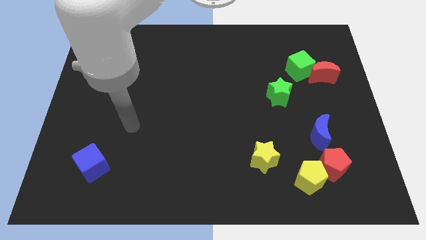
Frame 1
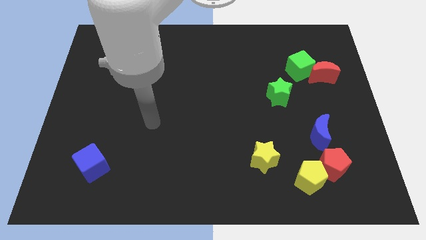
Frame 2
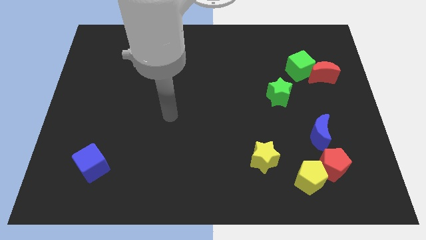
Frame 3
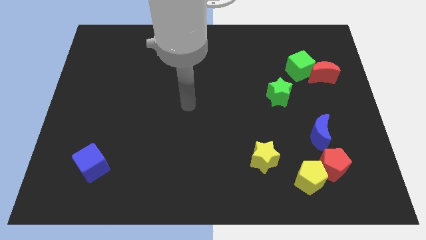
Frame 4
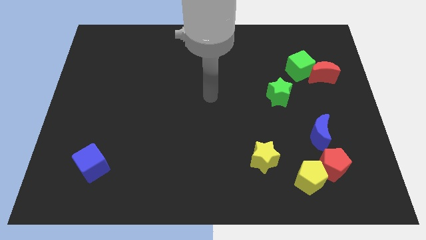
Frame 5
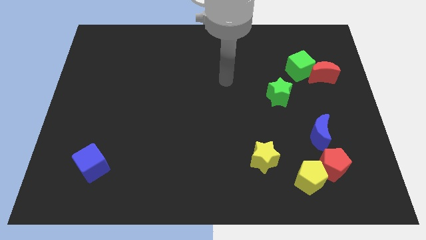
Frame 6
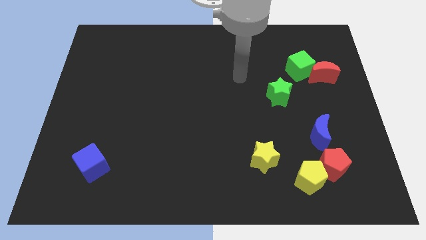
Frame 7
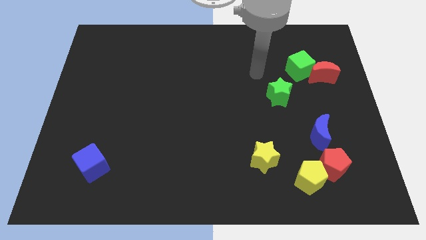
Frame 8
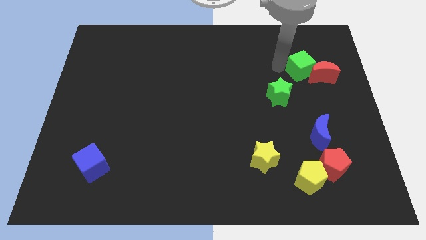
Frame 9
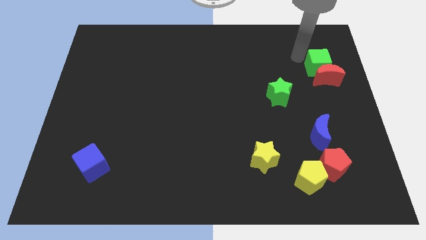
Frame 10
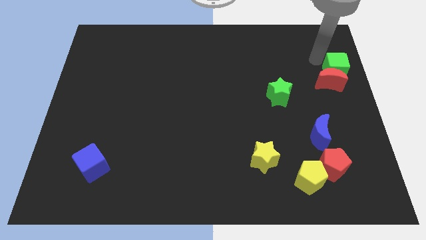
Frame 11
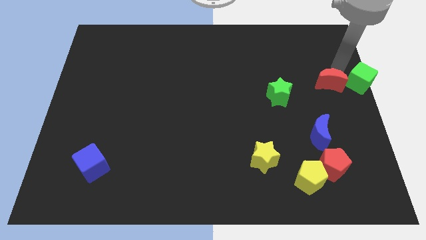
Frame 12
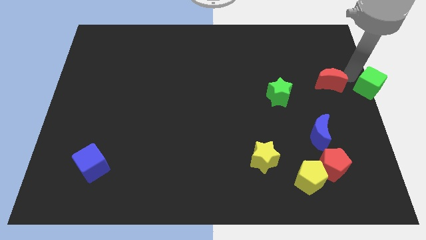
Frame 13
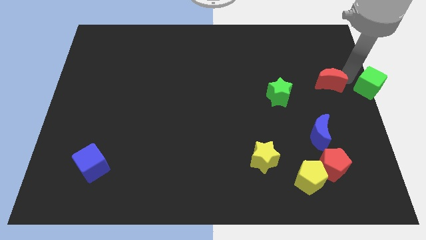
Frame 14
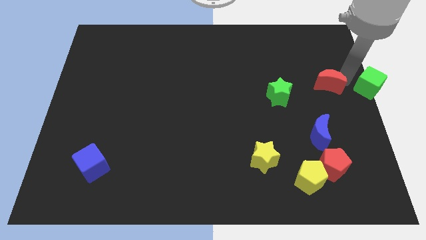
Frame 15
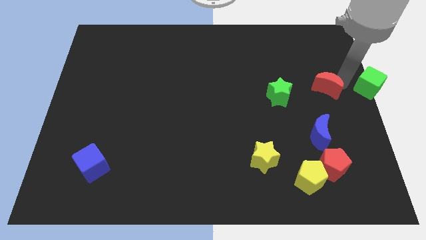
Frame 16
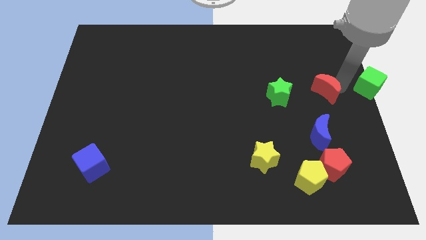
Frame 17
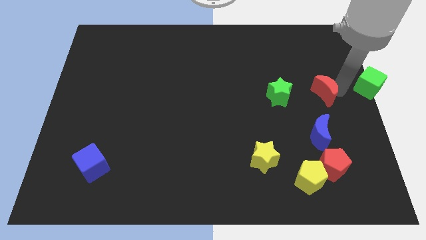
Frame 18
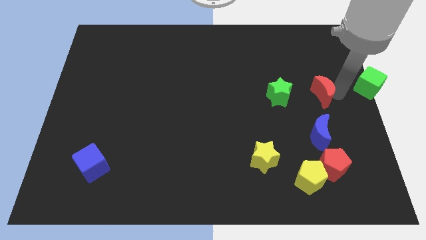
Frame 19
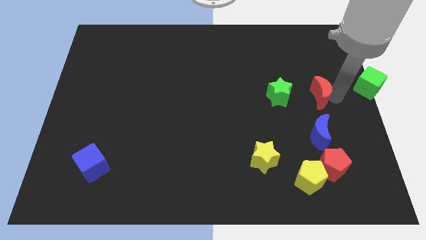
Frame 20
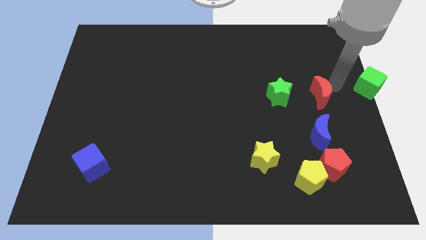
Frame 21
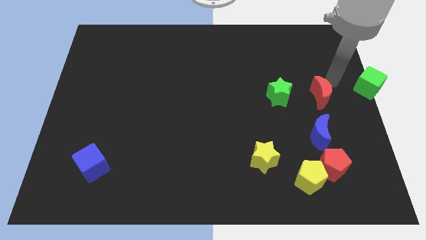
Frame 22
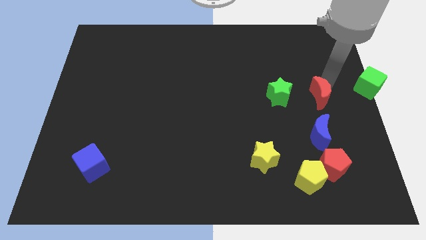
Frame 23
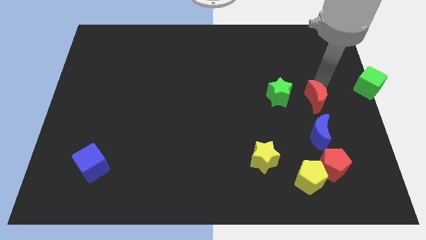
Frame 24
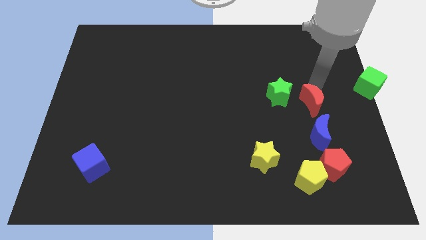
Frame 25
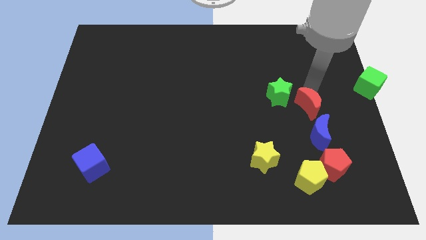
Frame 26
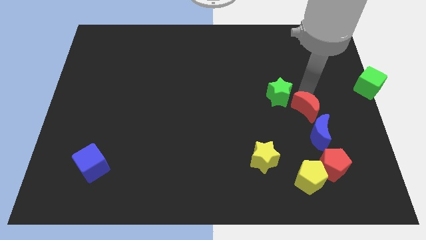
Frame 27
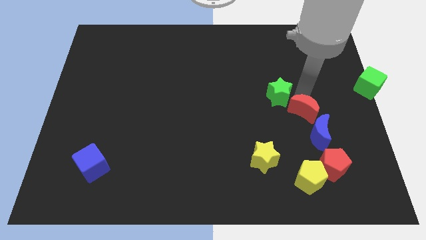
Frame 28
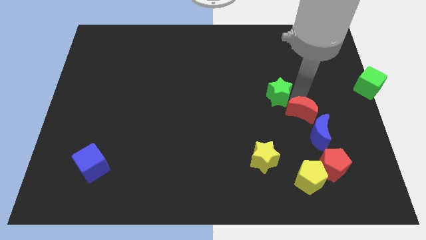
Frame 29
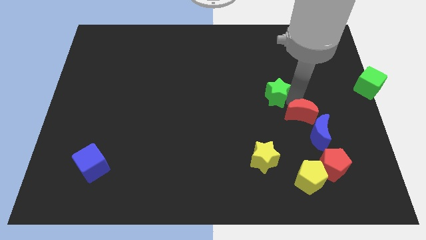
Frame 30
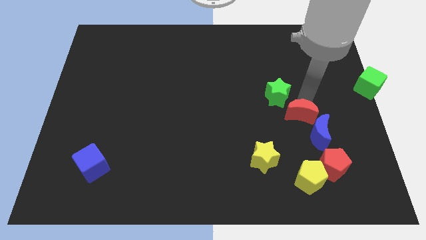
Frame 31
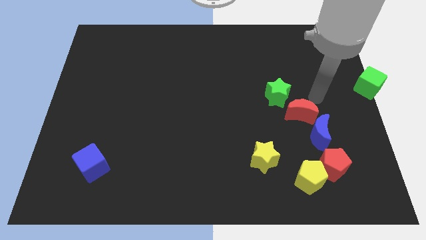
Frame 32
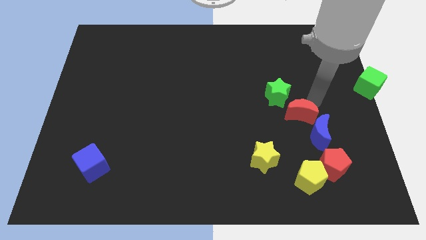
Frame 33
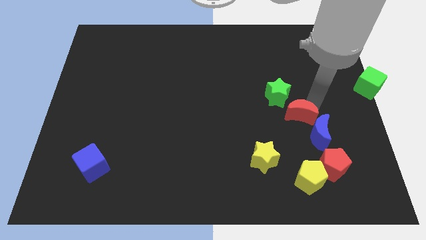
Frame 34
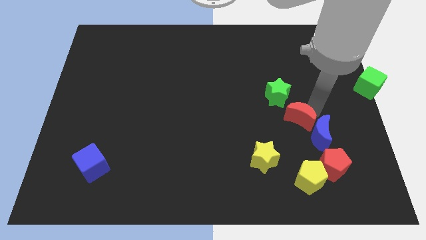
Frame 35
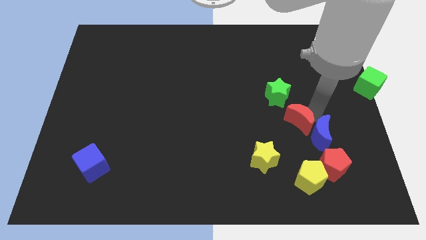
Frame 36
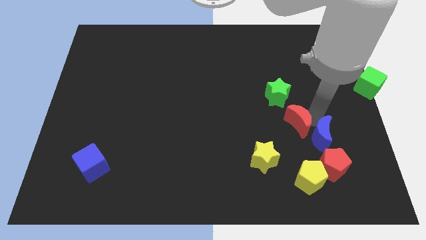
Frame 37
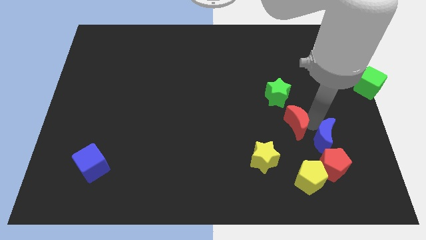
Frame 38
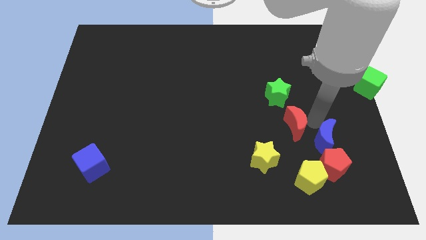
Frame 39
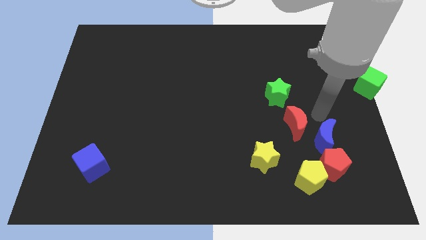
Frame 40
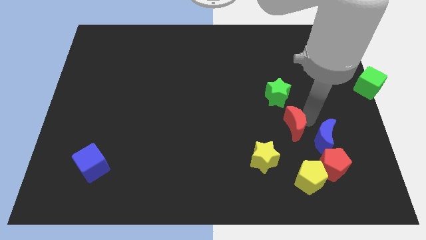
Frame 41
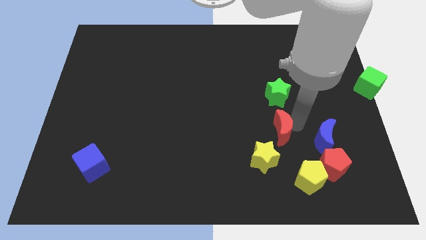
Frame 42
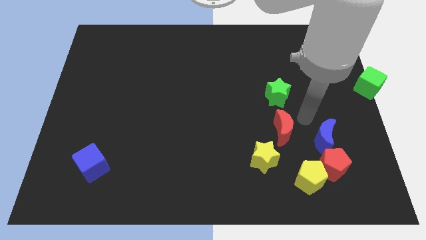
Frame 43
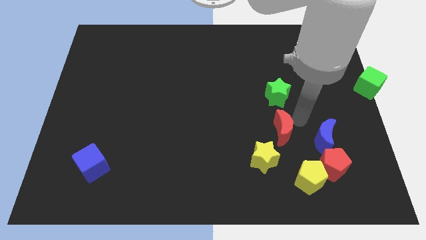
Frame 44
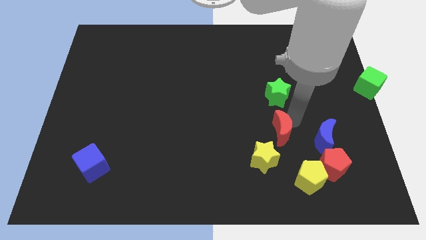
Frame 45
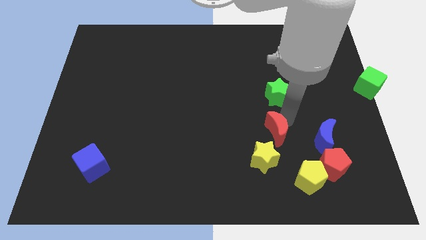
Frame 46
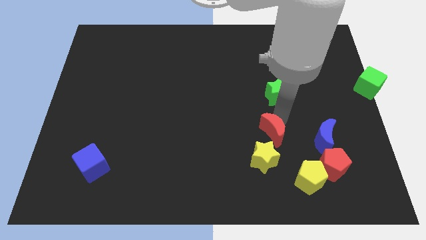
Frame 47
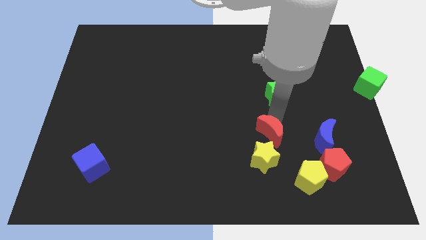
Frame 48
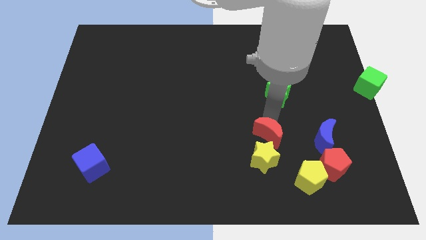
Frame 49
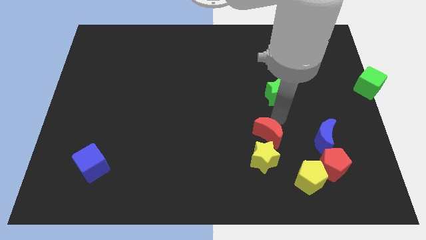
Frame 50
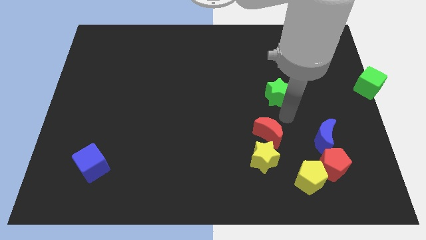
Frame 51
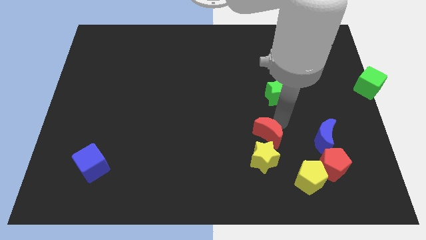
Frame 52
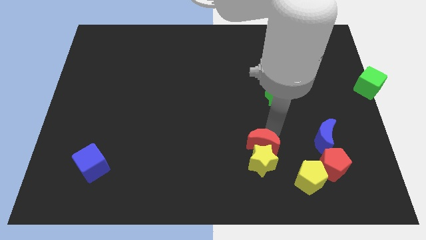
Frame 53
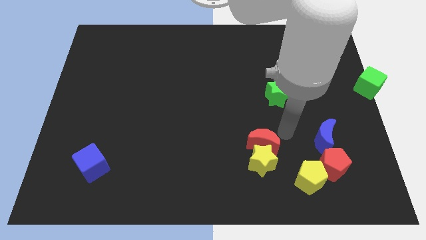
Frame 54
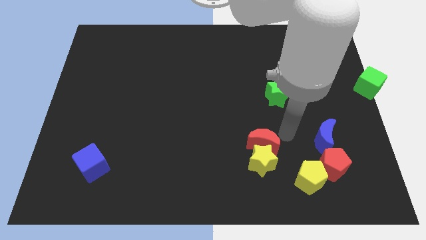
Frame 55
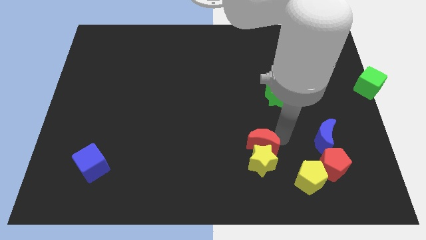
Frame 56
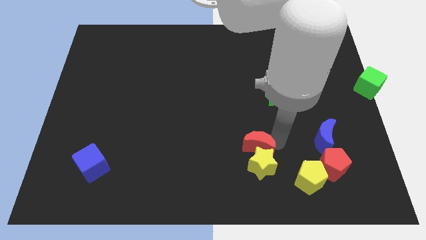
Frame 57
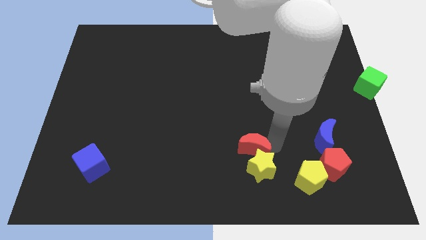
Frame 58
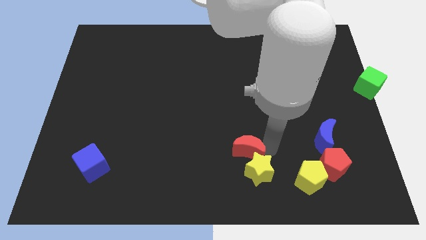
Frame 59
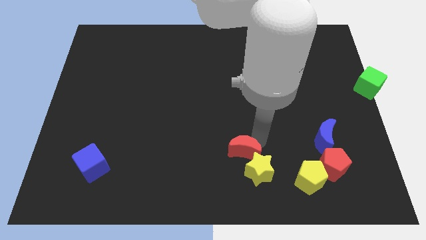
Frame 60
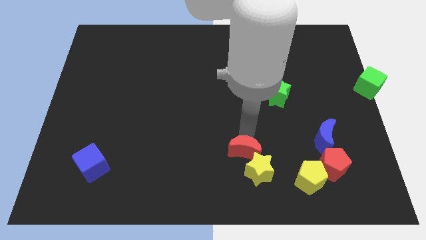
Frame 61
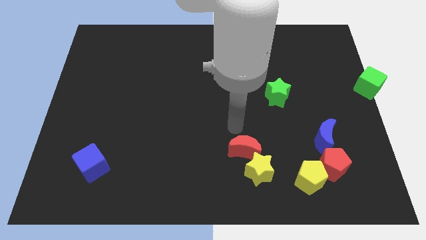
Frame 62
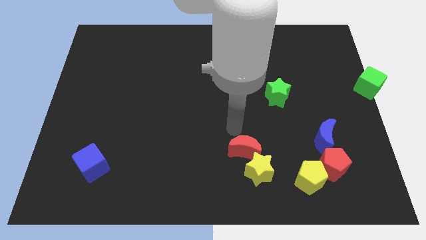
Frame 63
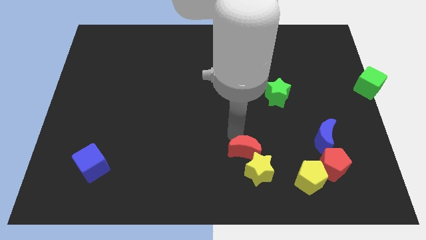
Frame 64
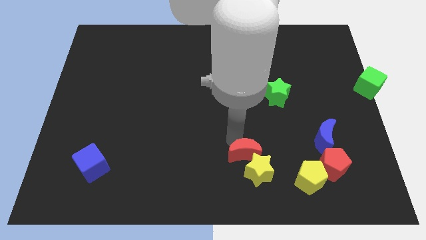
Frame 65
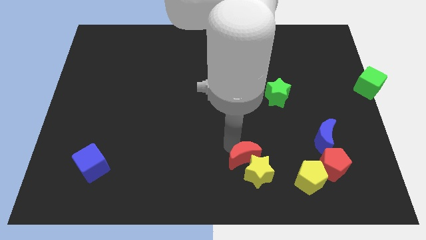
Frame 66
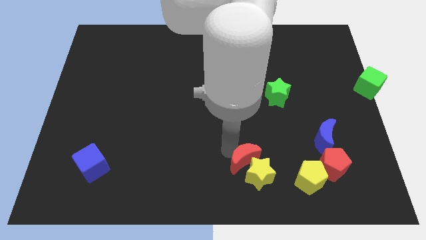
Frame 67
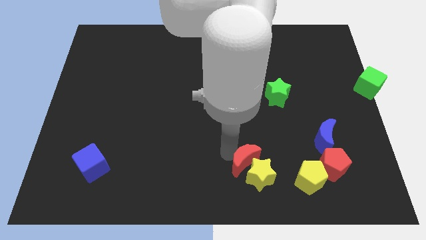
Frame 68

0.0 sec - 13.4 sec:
move the red moon just left of the yellow pentagon
